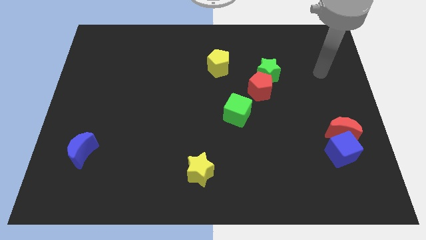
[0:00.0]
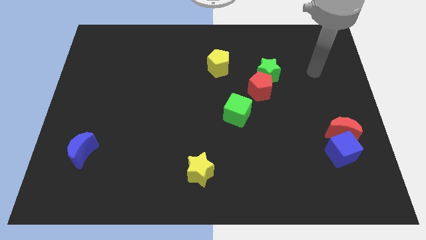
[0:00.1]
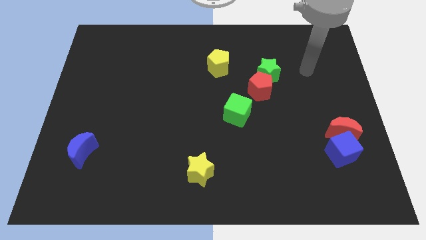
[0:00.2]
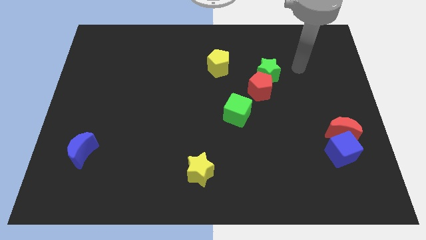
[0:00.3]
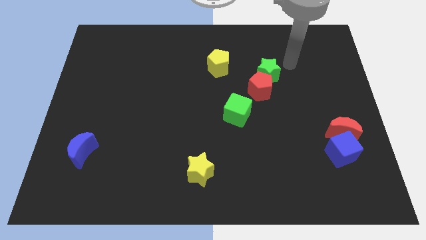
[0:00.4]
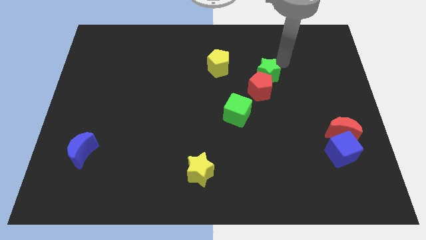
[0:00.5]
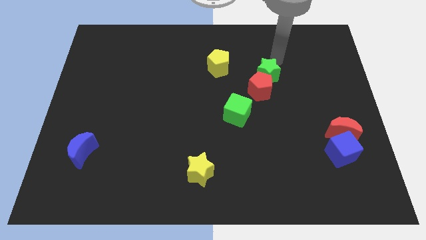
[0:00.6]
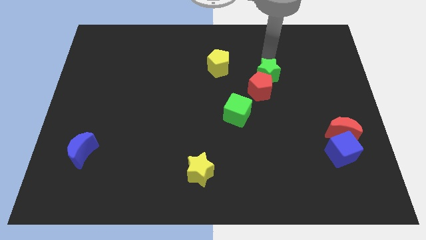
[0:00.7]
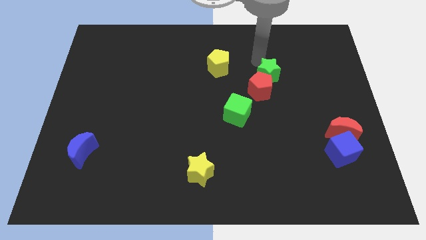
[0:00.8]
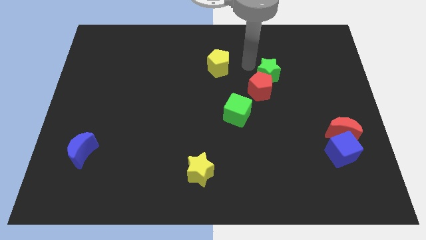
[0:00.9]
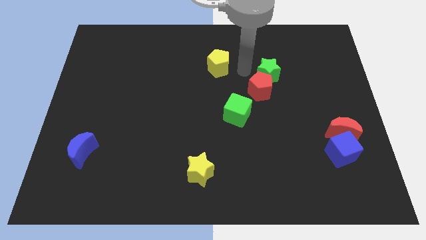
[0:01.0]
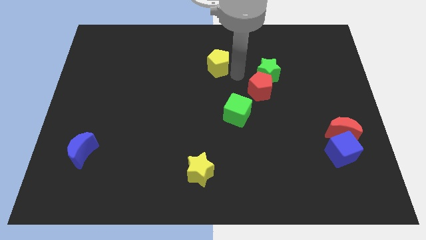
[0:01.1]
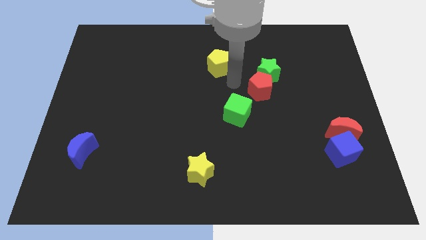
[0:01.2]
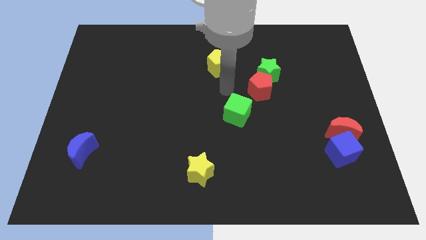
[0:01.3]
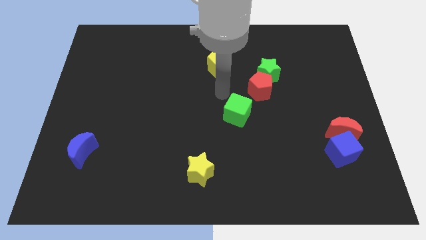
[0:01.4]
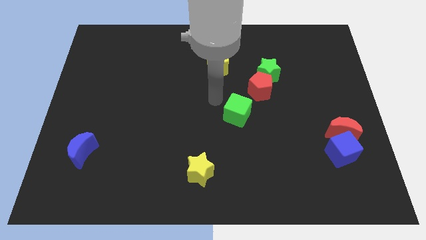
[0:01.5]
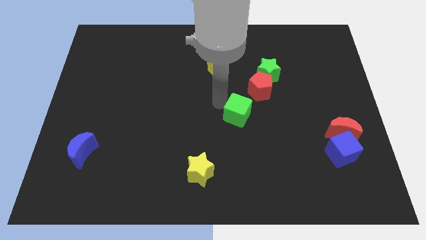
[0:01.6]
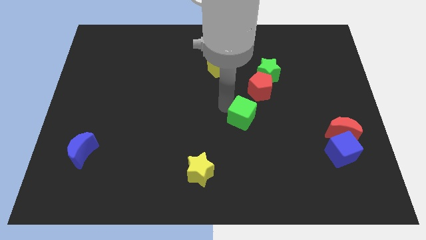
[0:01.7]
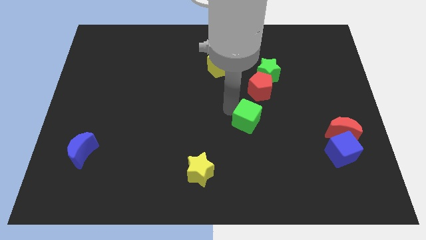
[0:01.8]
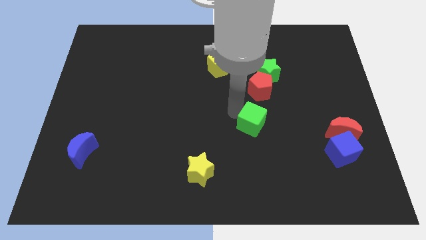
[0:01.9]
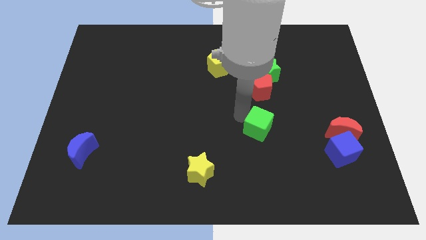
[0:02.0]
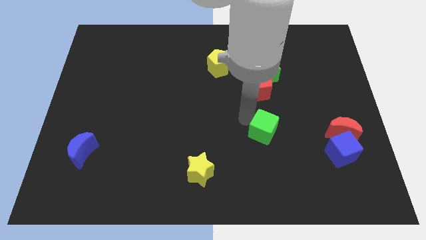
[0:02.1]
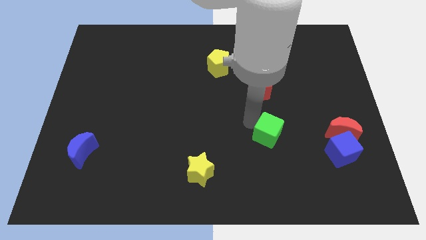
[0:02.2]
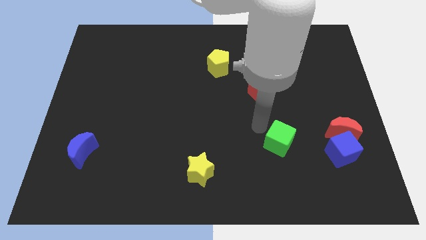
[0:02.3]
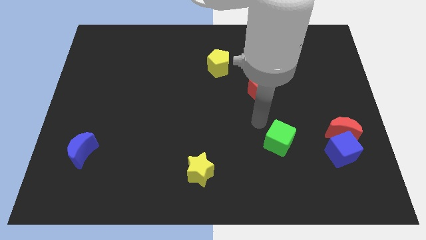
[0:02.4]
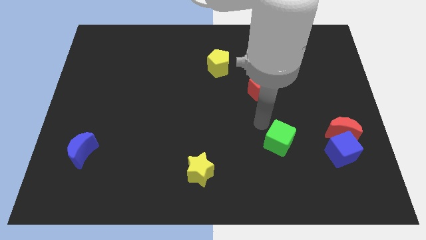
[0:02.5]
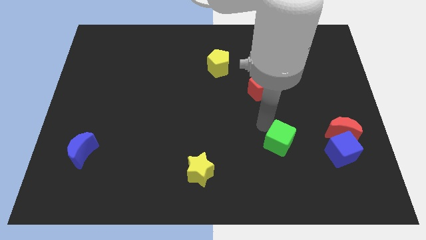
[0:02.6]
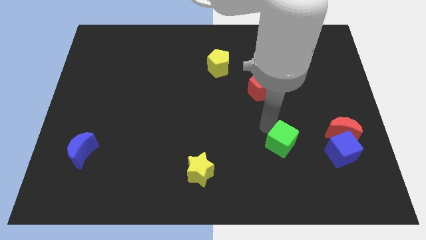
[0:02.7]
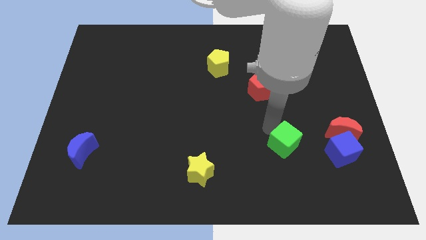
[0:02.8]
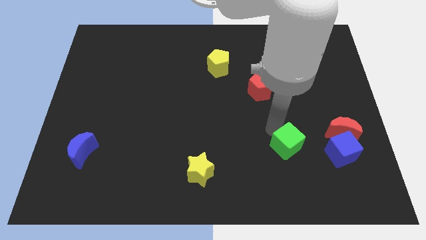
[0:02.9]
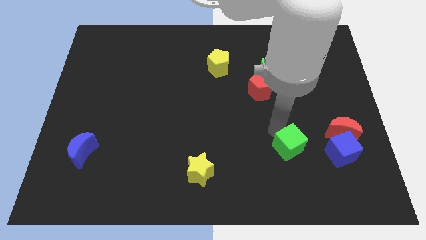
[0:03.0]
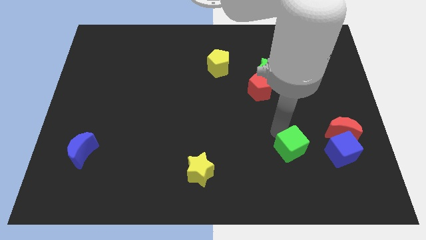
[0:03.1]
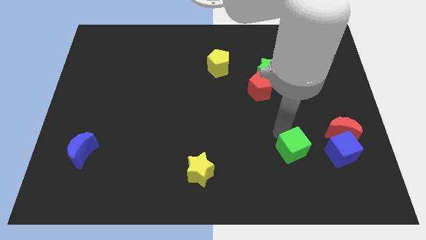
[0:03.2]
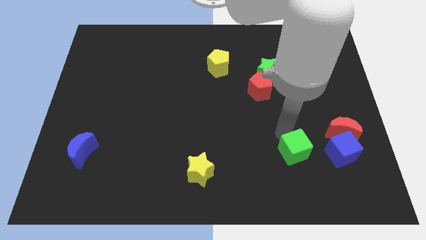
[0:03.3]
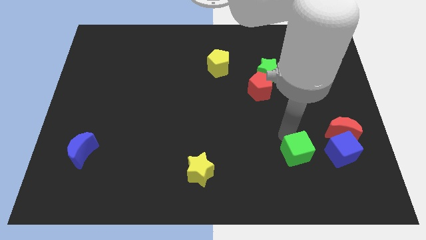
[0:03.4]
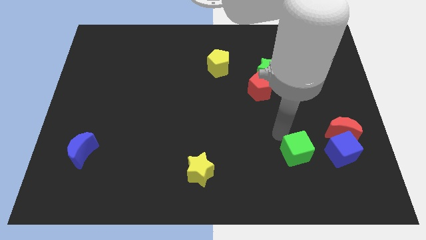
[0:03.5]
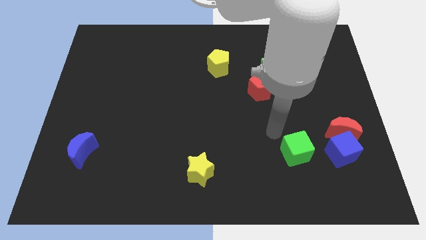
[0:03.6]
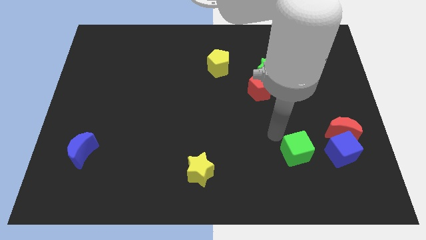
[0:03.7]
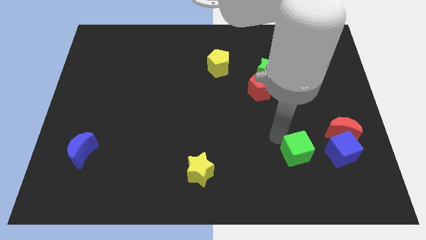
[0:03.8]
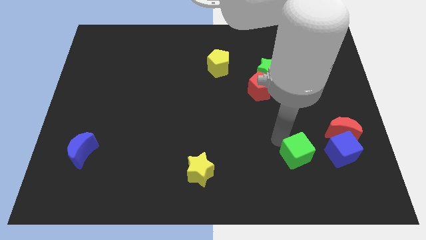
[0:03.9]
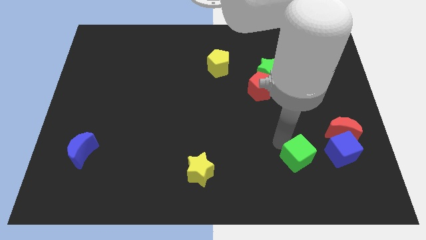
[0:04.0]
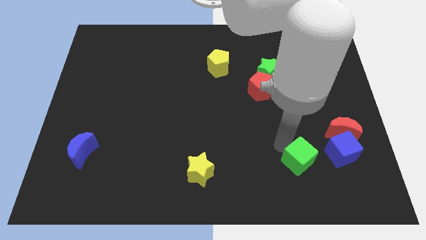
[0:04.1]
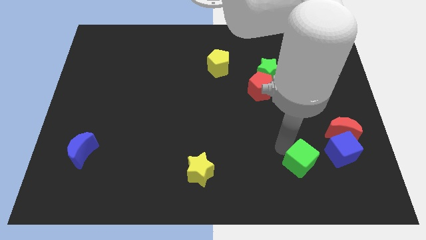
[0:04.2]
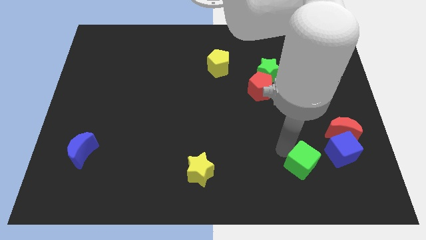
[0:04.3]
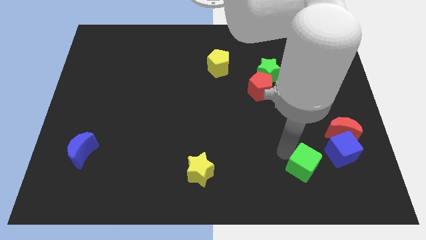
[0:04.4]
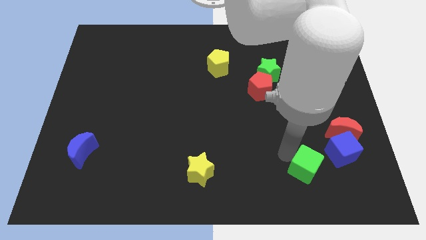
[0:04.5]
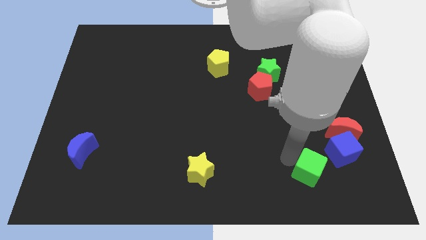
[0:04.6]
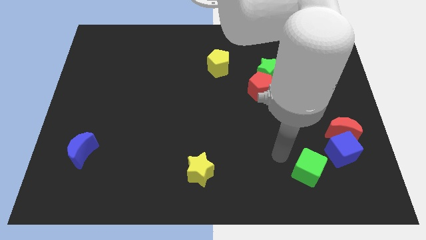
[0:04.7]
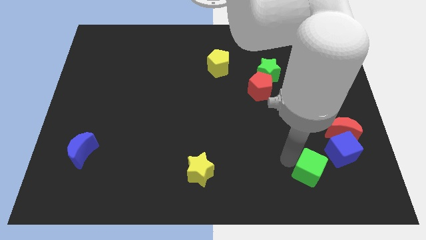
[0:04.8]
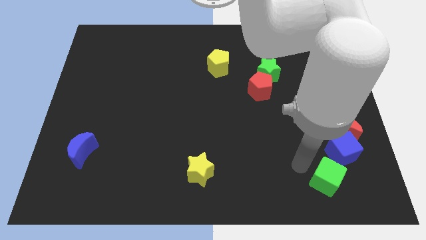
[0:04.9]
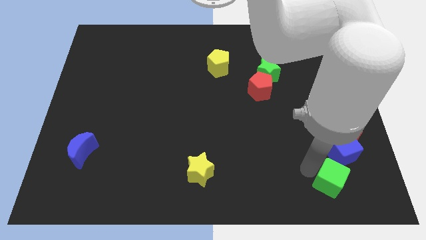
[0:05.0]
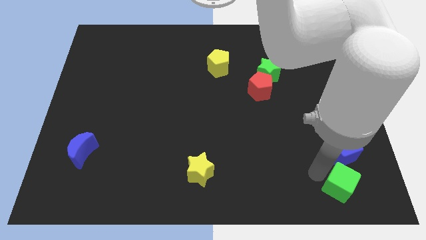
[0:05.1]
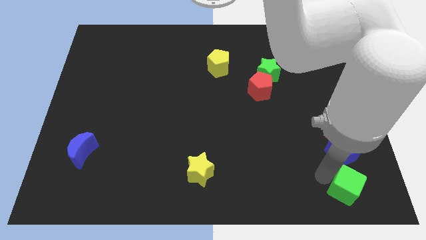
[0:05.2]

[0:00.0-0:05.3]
push the green cube to the bottom right corner

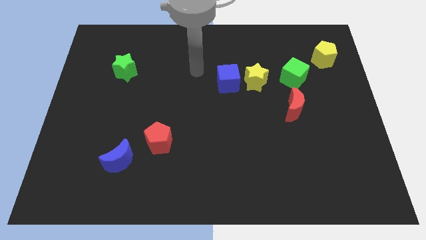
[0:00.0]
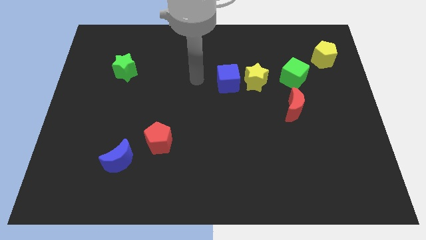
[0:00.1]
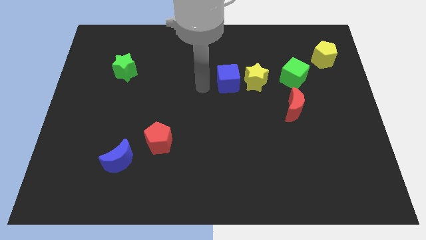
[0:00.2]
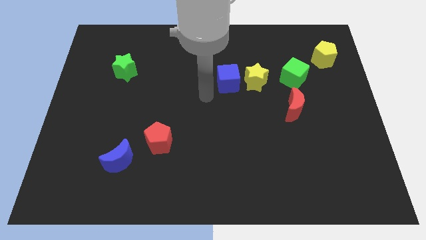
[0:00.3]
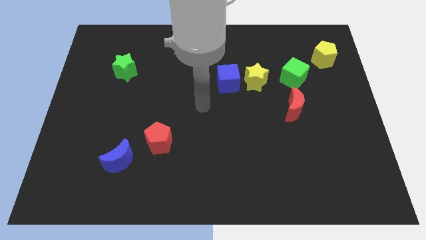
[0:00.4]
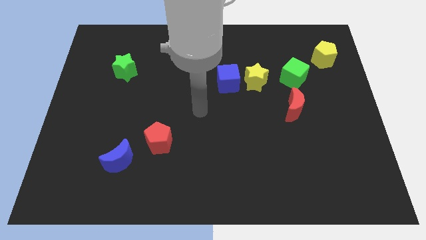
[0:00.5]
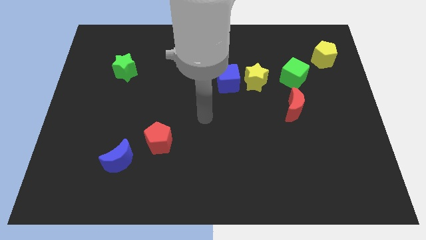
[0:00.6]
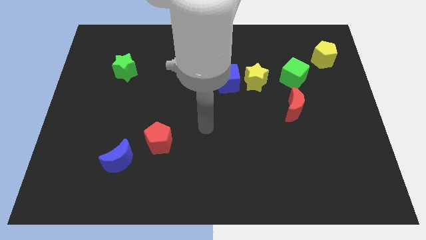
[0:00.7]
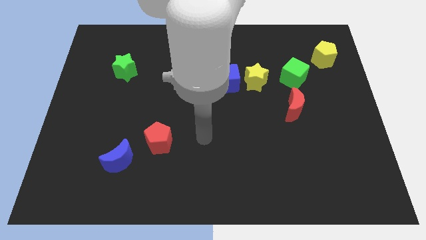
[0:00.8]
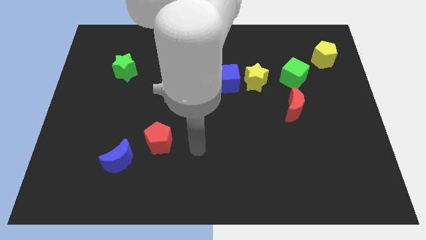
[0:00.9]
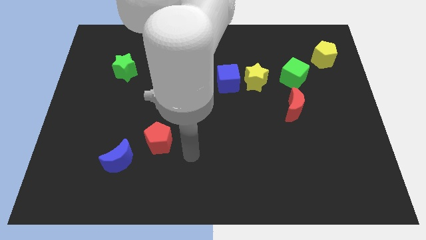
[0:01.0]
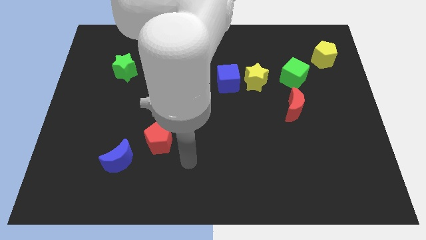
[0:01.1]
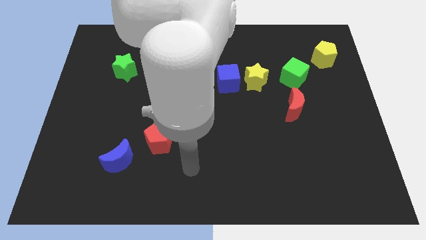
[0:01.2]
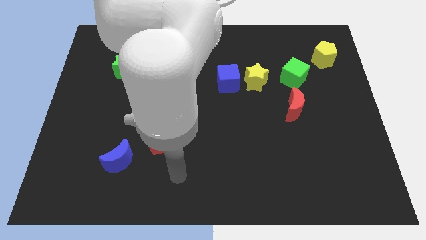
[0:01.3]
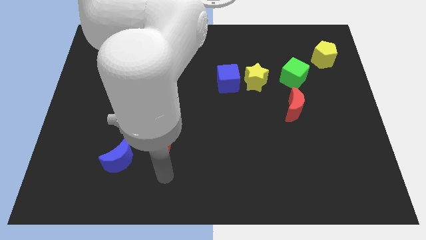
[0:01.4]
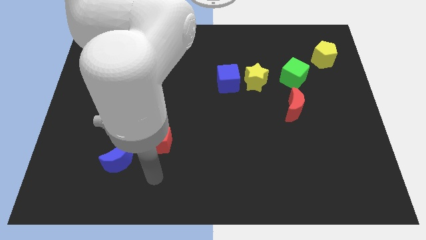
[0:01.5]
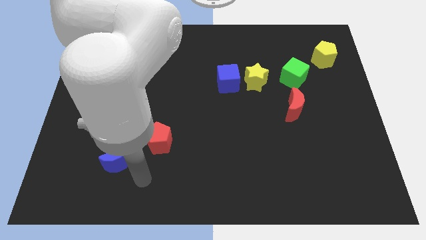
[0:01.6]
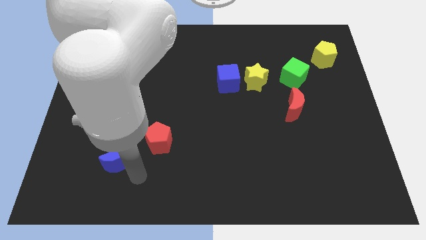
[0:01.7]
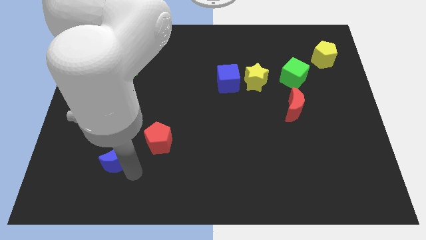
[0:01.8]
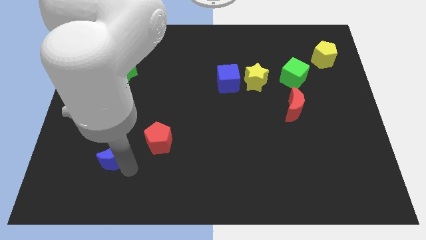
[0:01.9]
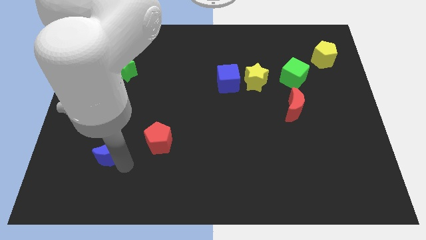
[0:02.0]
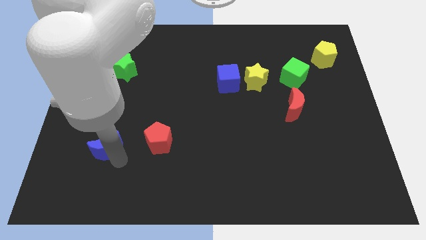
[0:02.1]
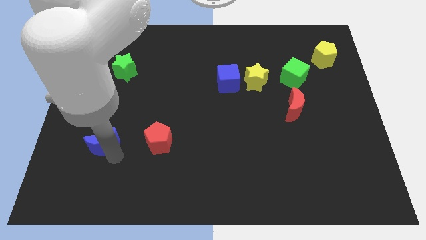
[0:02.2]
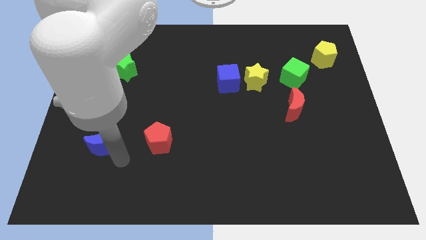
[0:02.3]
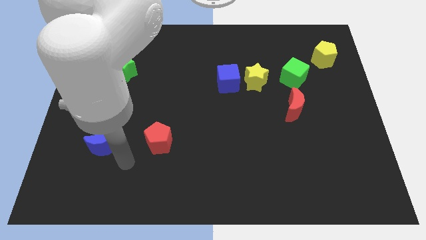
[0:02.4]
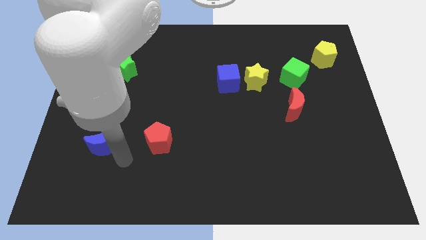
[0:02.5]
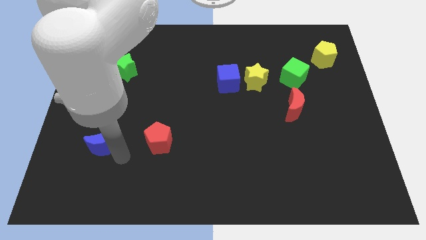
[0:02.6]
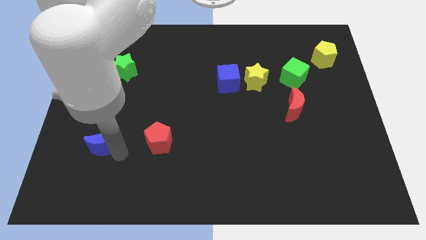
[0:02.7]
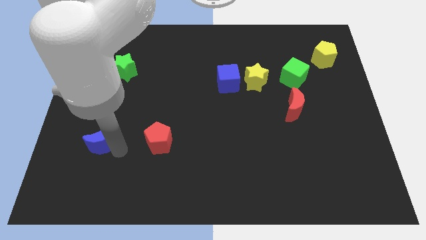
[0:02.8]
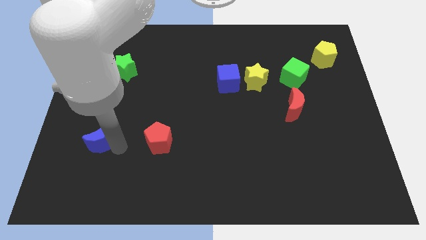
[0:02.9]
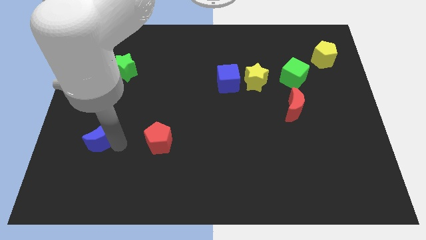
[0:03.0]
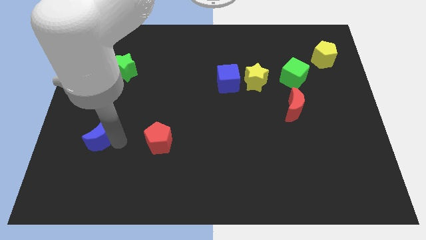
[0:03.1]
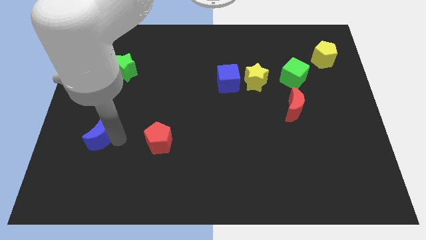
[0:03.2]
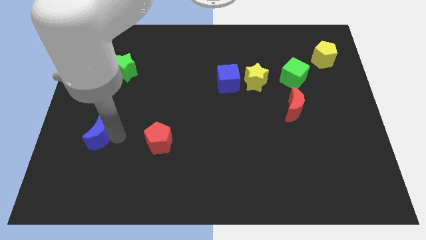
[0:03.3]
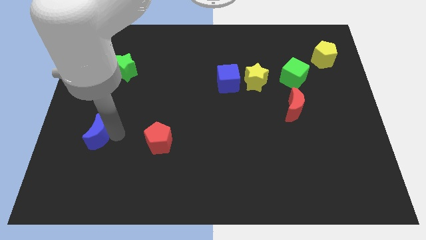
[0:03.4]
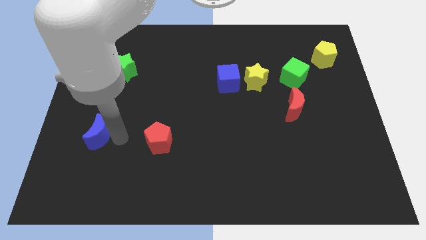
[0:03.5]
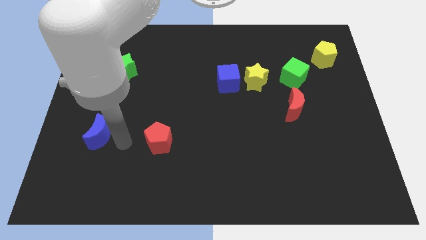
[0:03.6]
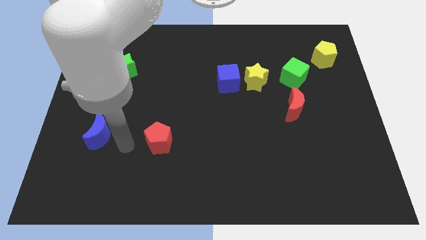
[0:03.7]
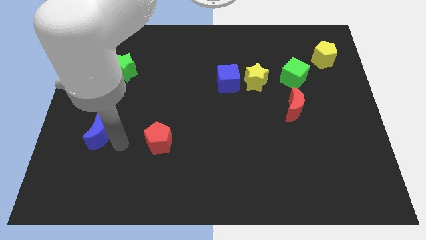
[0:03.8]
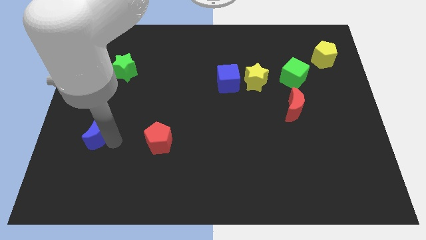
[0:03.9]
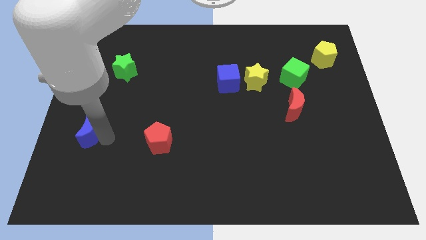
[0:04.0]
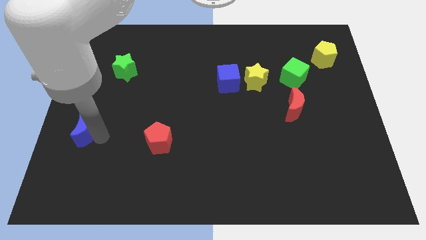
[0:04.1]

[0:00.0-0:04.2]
slide the blue moon to the left side
